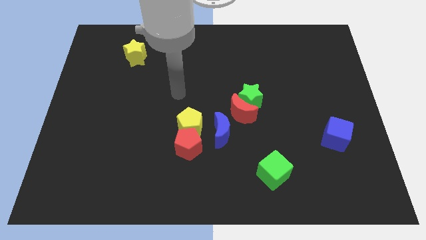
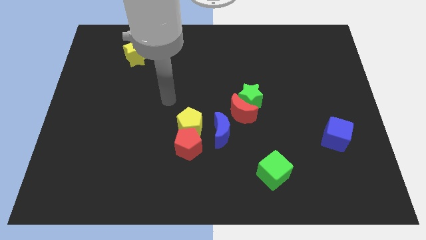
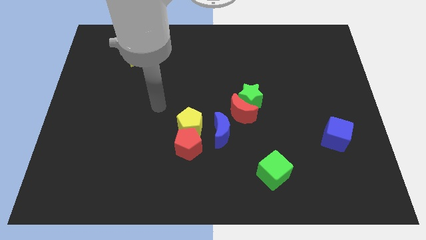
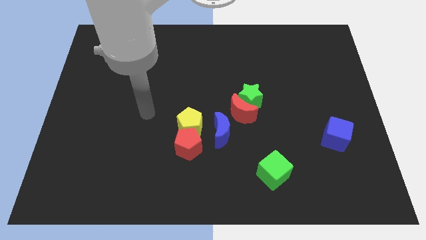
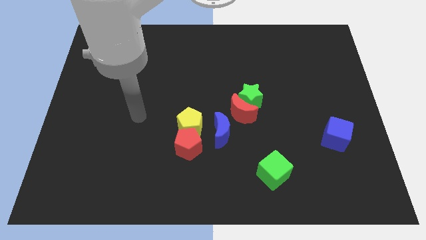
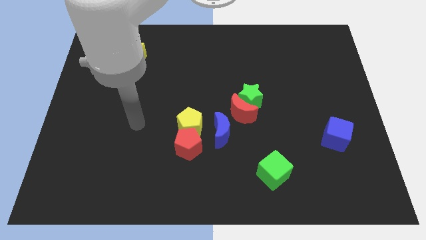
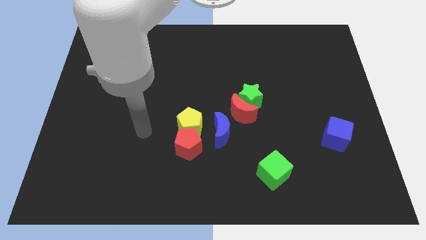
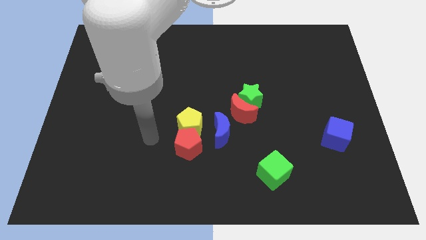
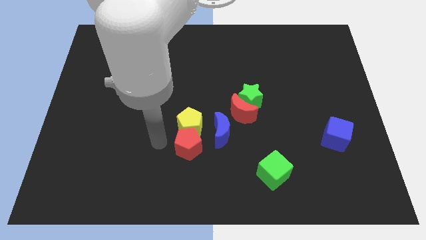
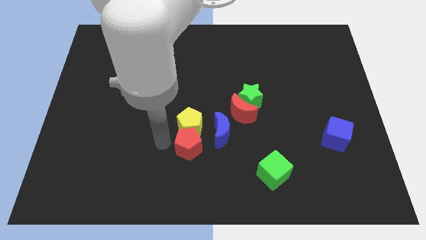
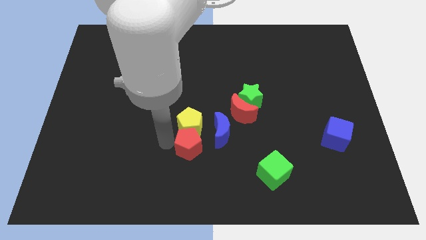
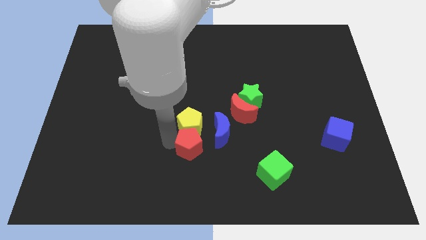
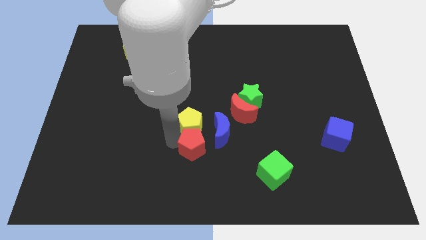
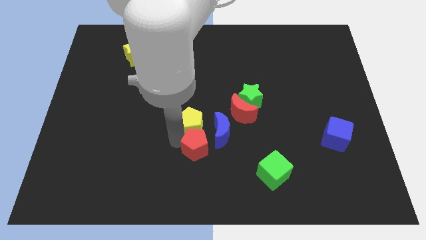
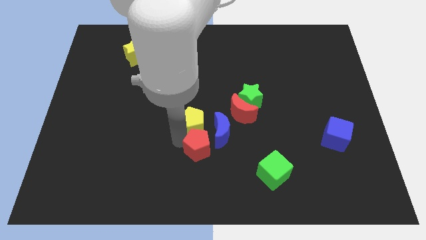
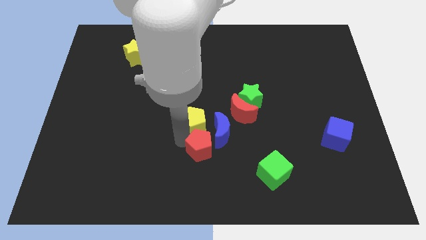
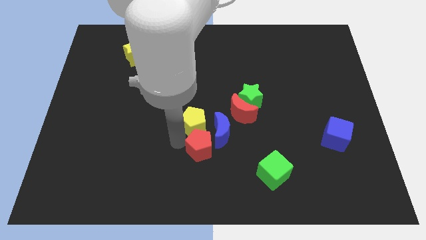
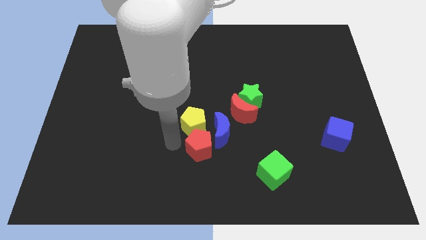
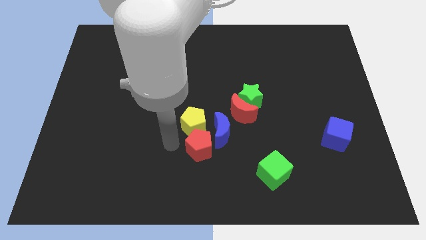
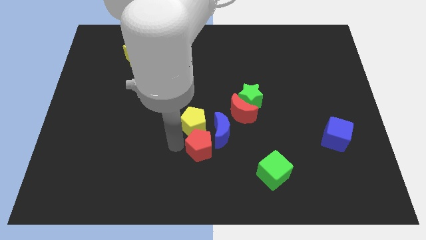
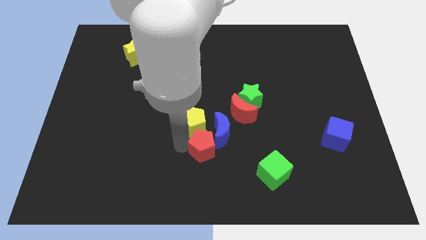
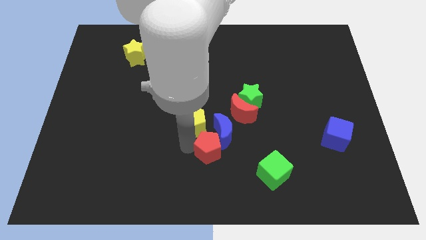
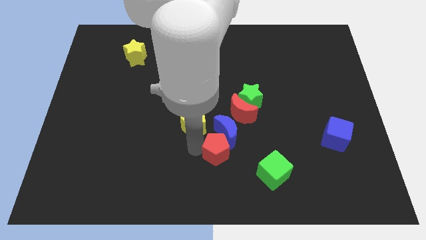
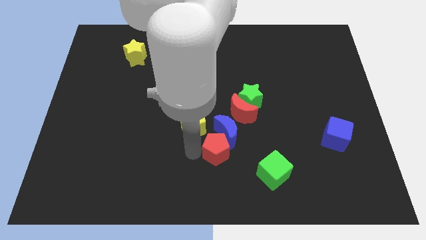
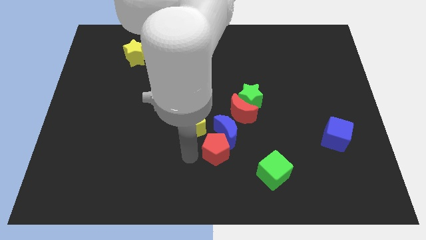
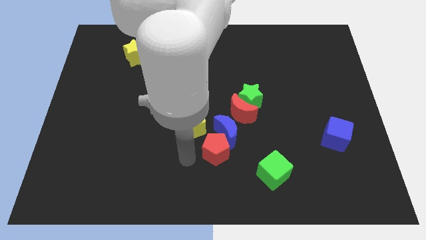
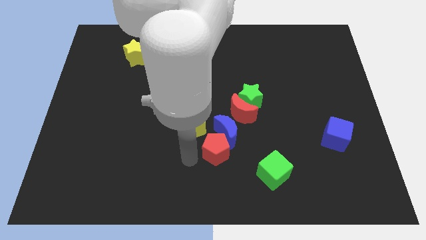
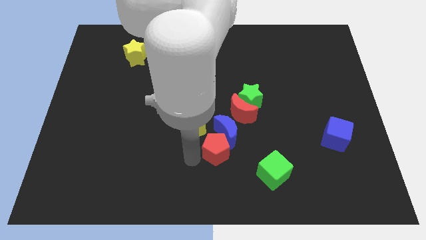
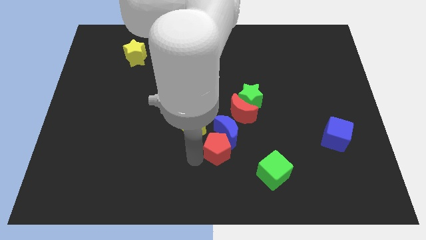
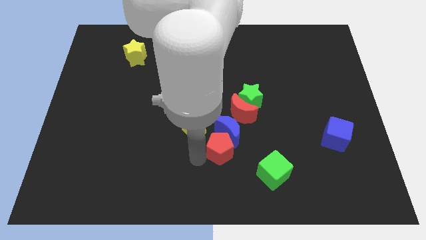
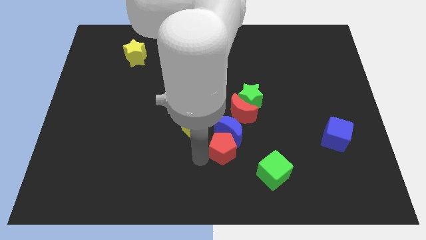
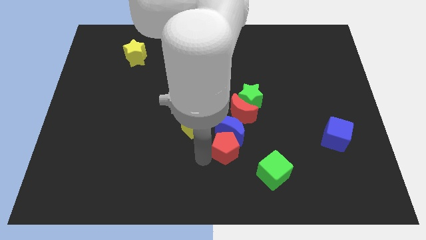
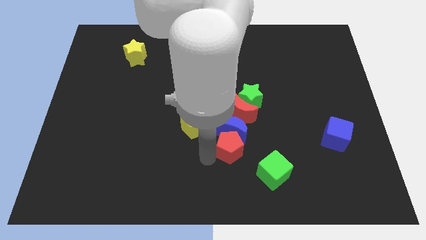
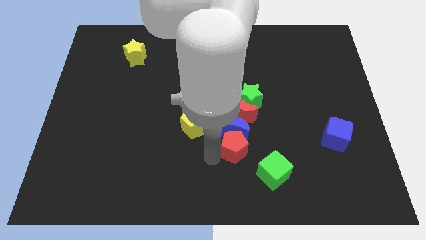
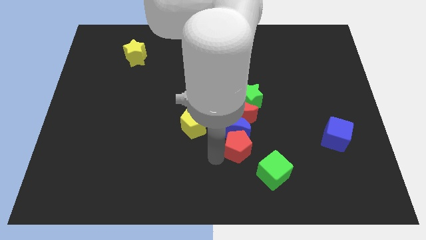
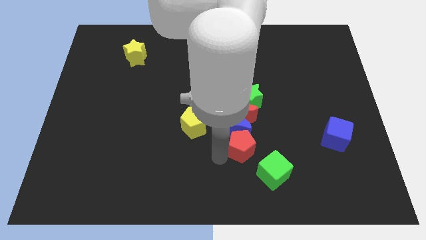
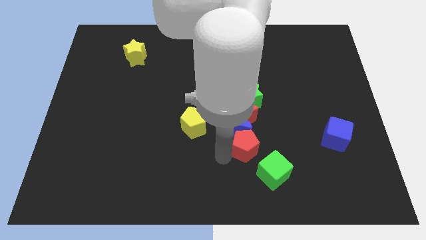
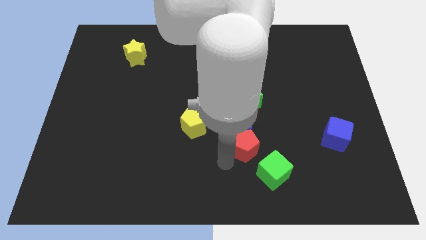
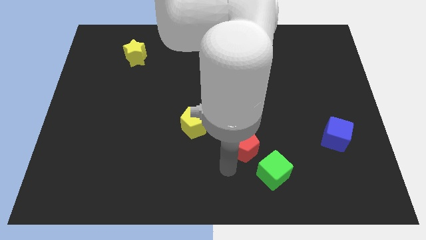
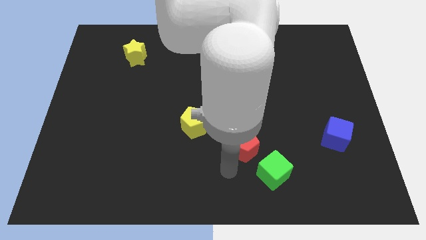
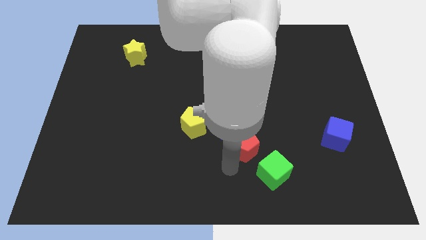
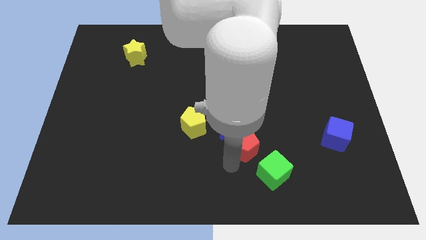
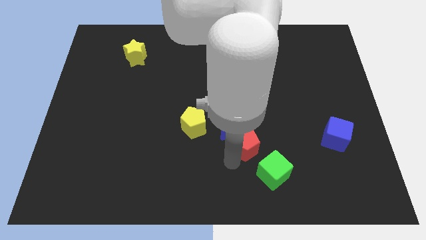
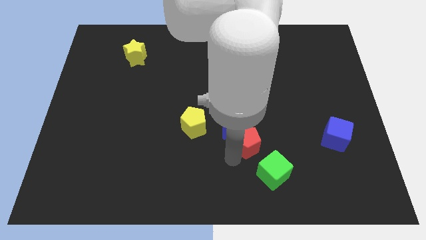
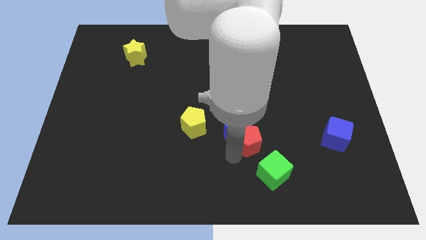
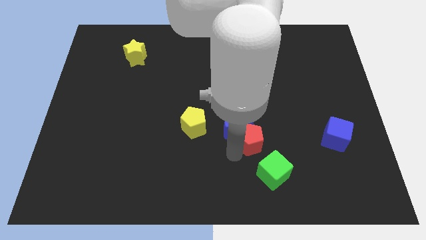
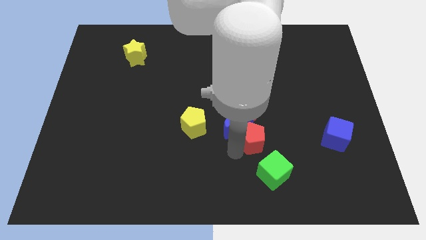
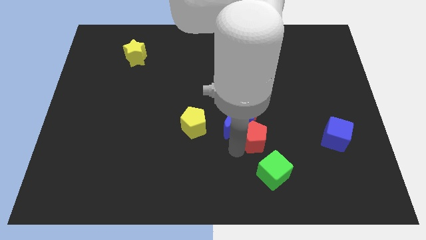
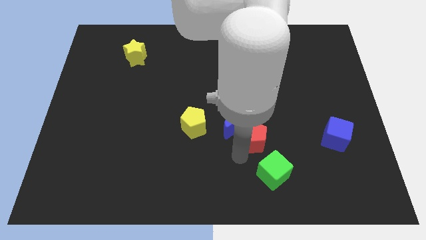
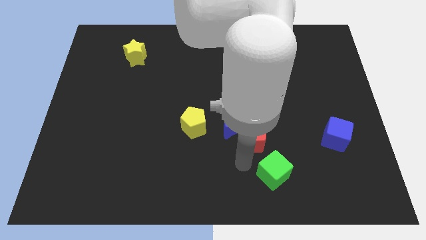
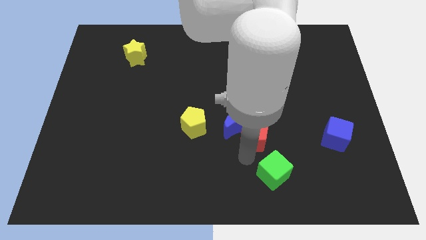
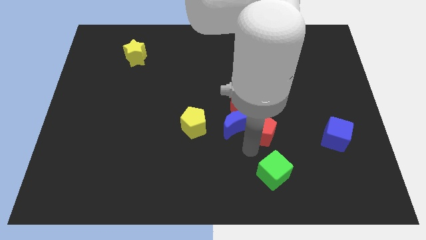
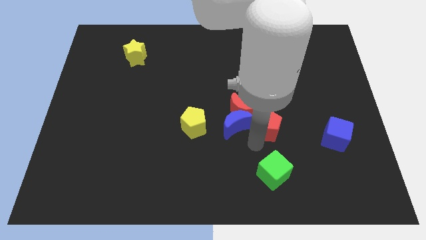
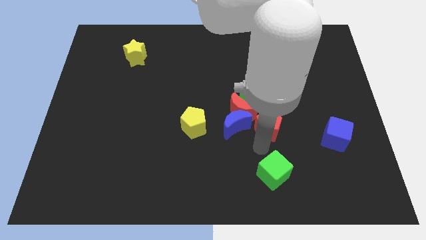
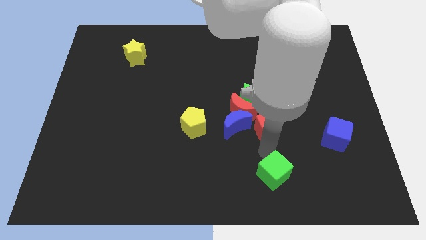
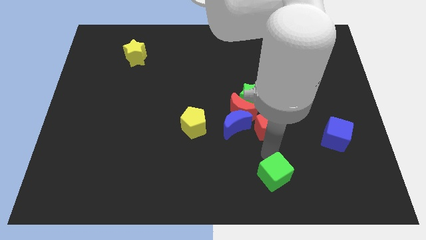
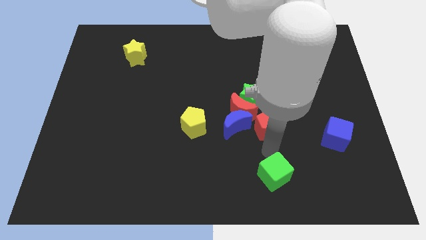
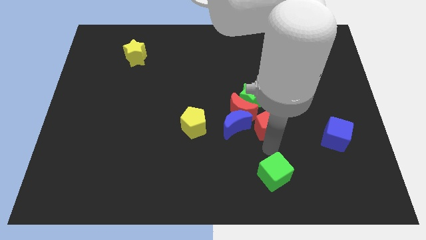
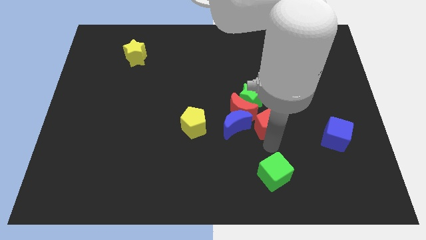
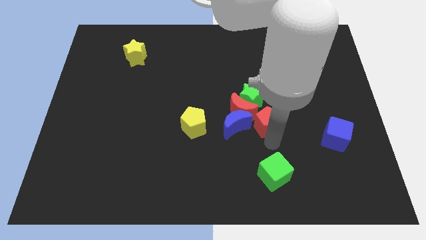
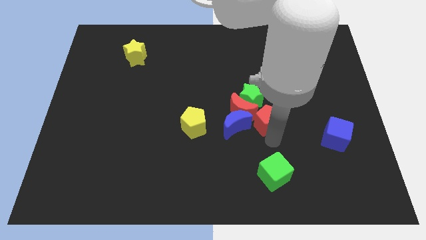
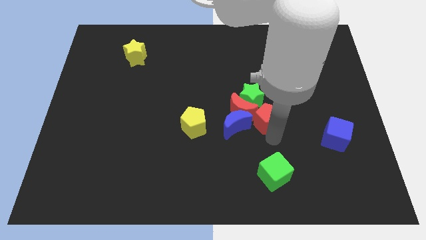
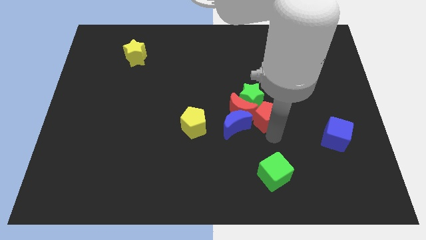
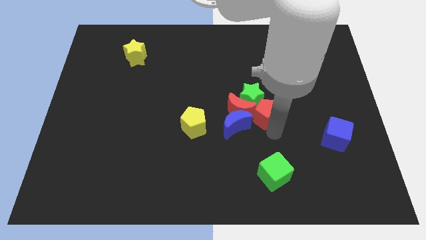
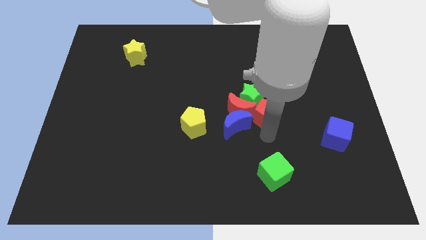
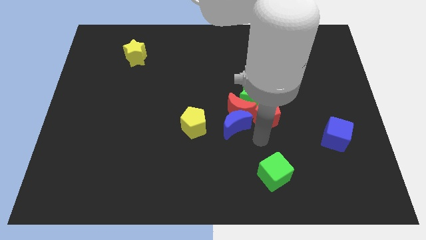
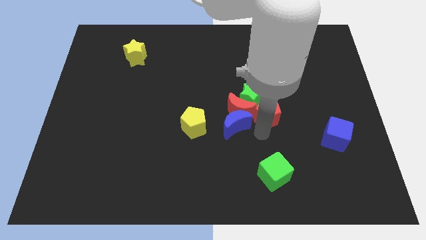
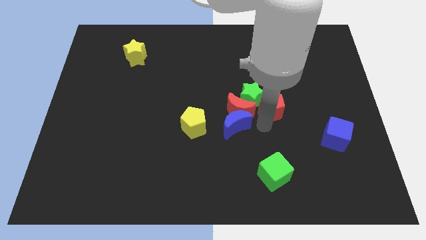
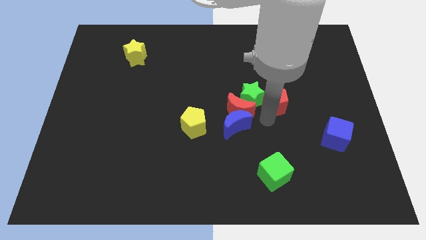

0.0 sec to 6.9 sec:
slide the red pentagon upwards and to the right

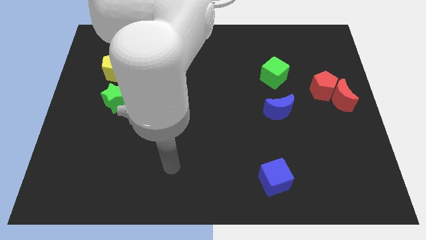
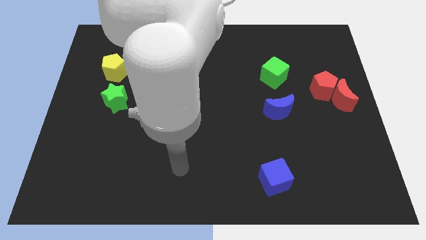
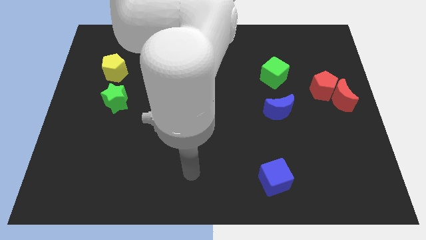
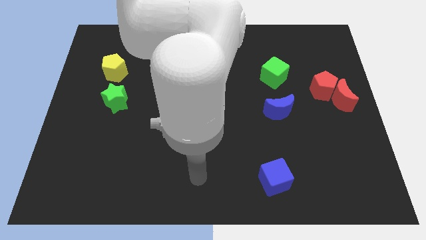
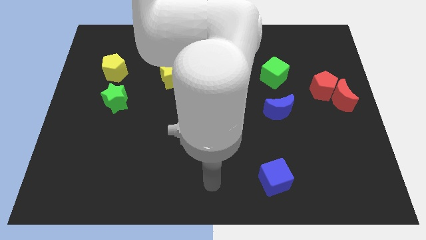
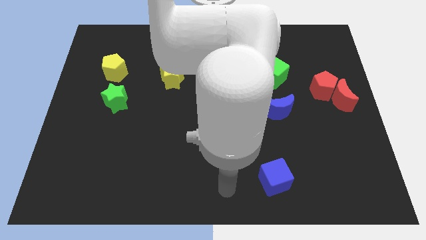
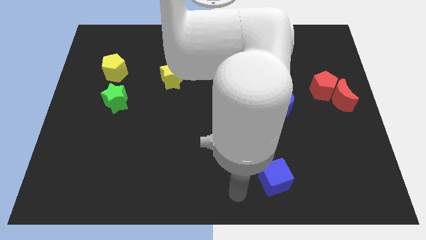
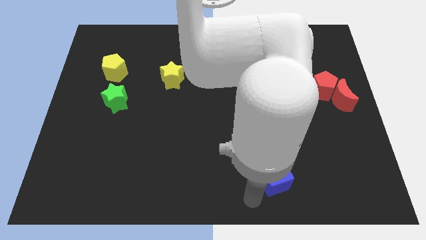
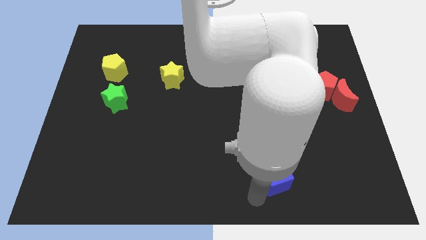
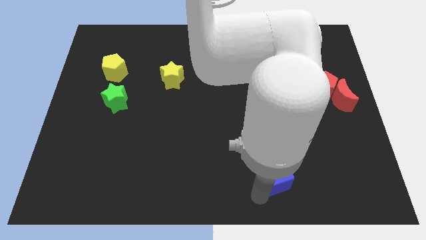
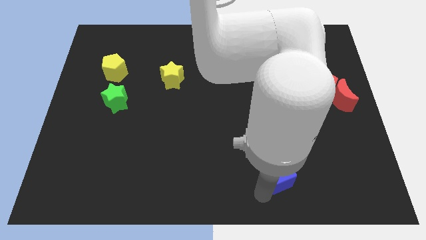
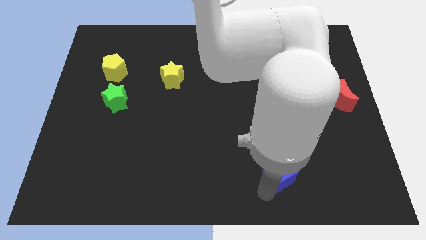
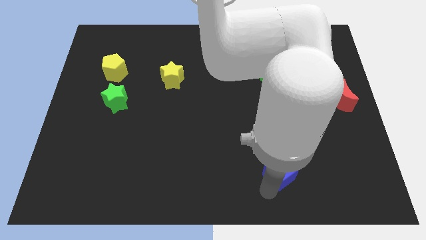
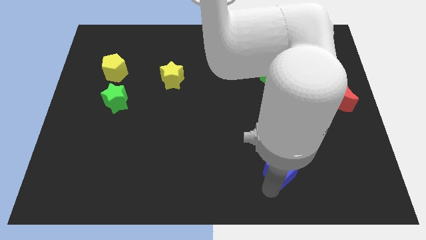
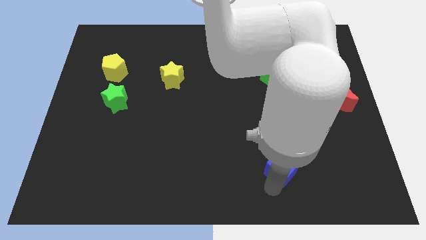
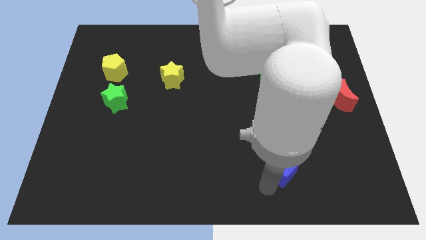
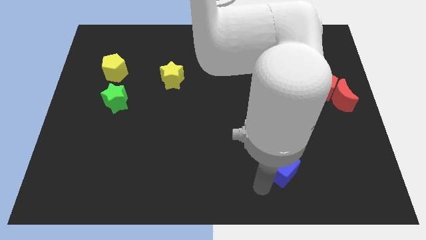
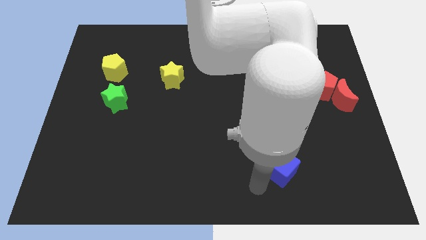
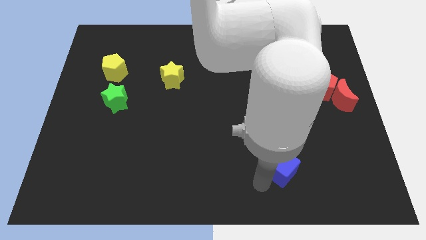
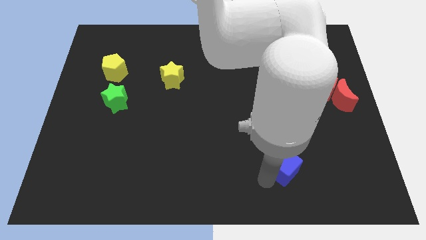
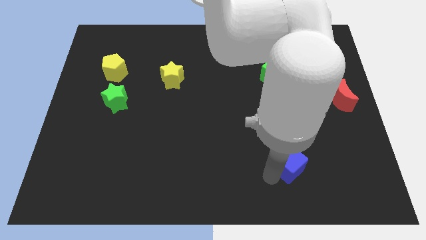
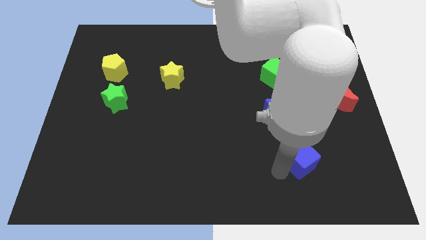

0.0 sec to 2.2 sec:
slightly move the blue cube upwards and to the right
